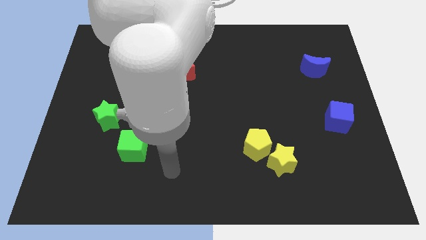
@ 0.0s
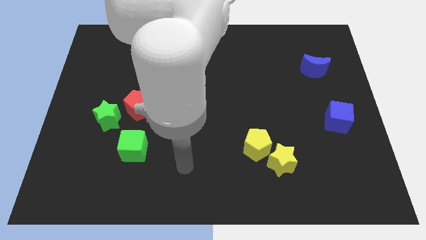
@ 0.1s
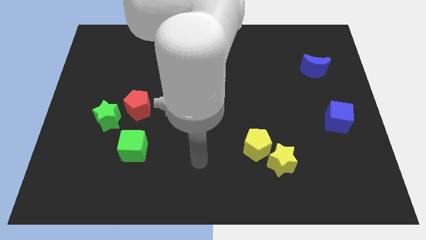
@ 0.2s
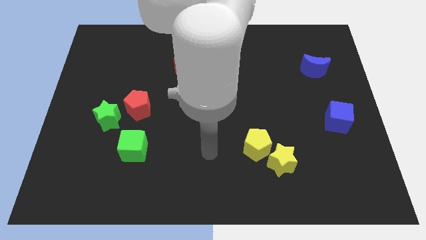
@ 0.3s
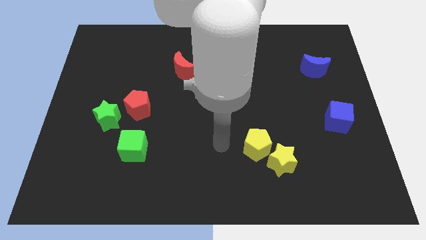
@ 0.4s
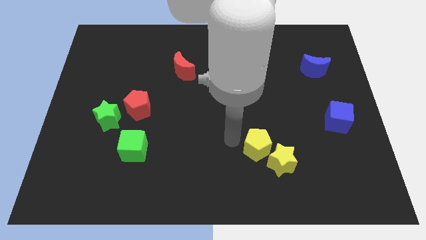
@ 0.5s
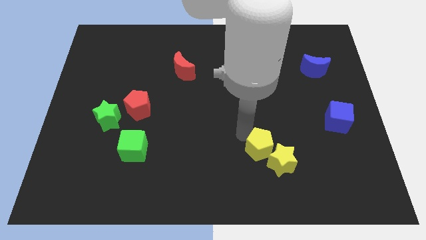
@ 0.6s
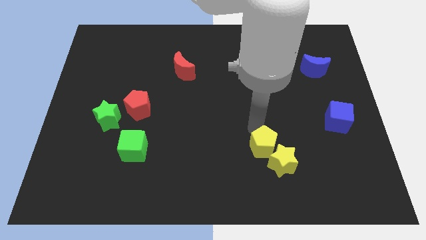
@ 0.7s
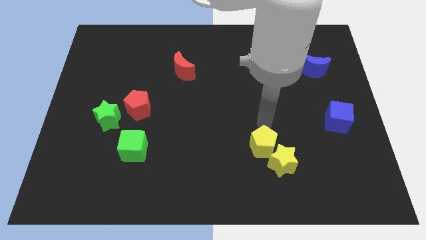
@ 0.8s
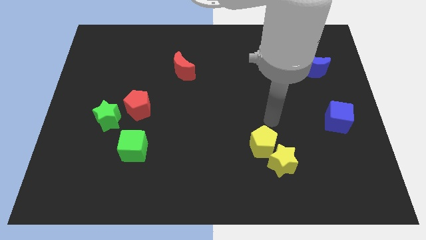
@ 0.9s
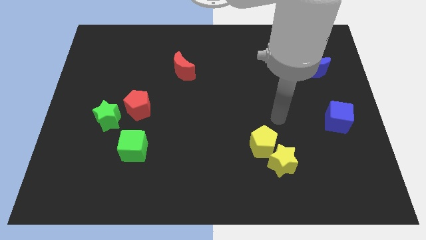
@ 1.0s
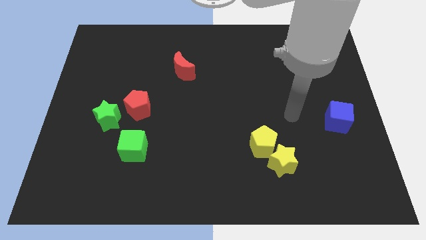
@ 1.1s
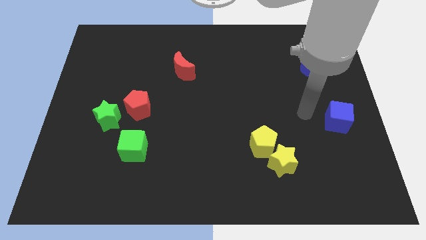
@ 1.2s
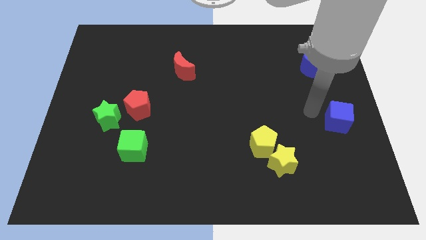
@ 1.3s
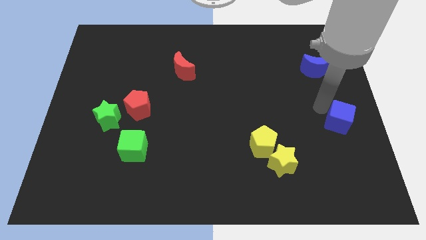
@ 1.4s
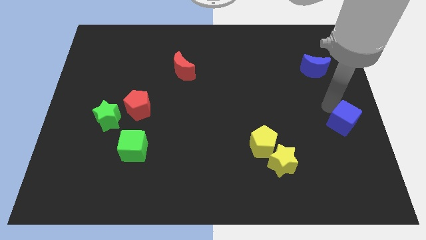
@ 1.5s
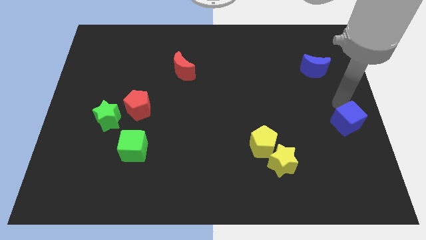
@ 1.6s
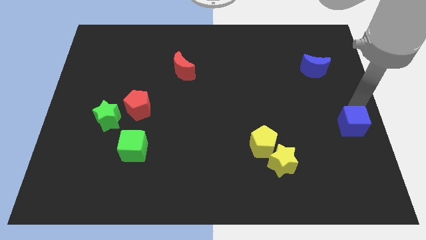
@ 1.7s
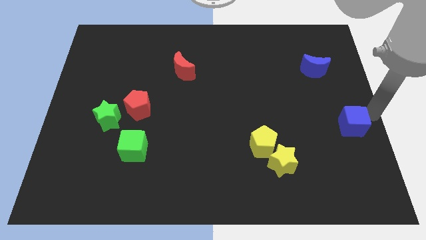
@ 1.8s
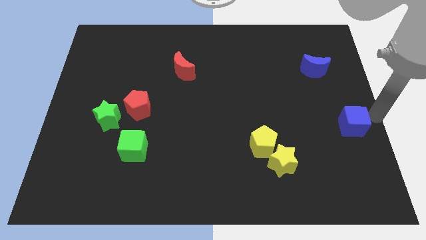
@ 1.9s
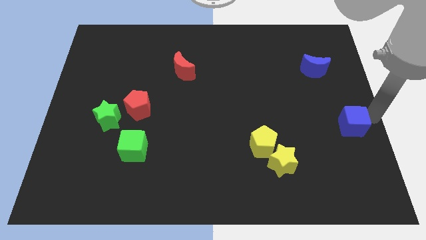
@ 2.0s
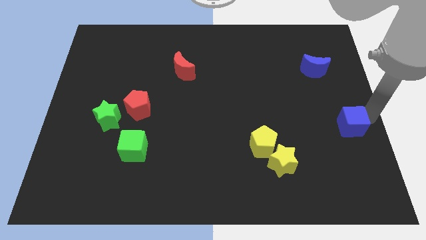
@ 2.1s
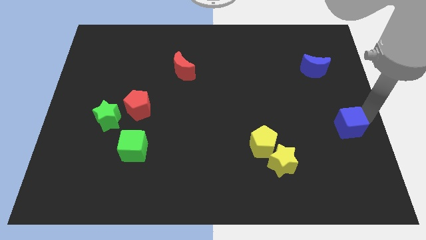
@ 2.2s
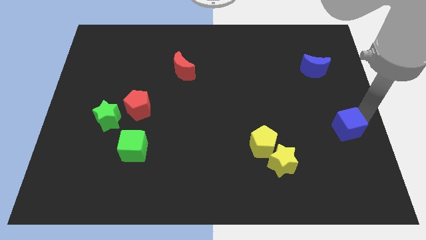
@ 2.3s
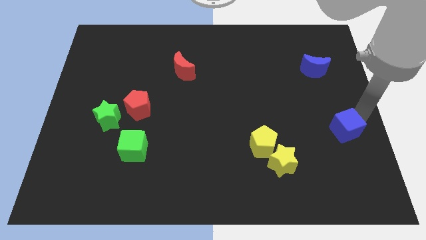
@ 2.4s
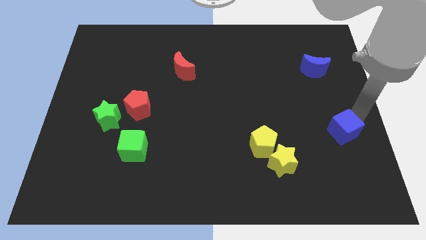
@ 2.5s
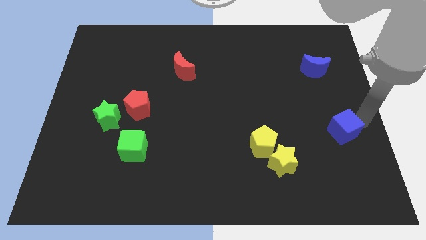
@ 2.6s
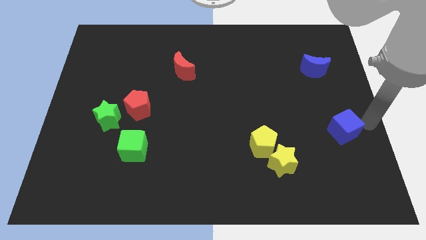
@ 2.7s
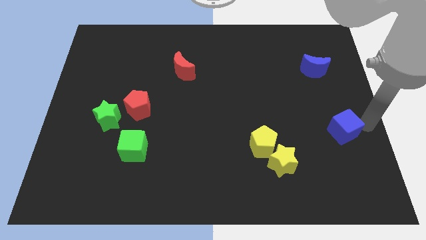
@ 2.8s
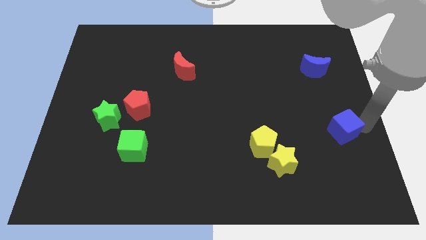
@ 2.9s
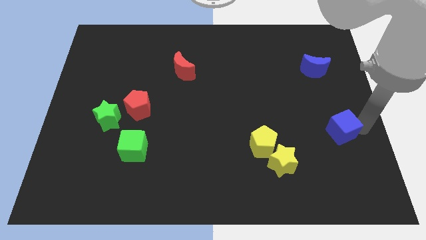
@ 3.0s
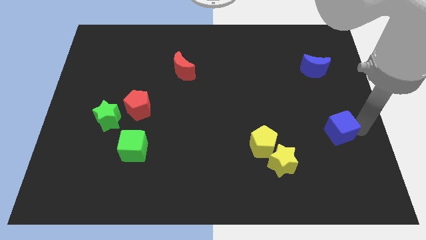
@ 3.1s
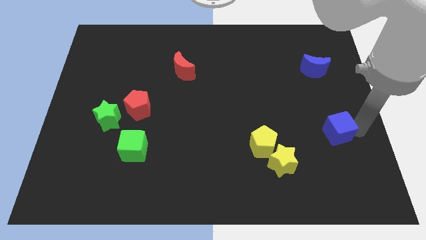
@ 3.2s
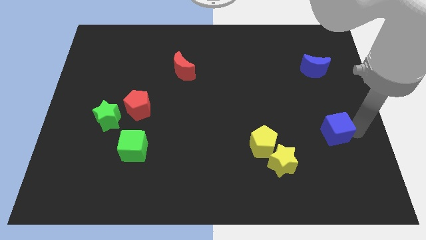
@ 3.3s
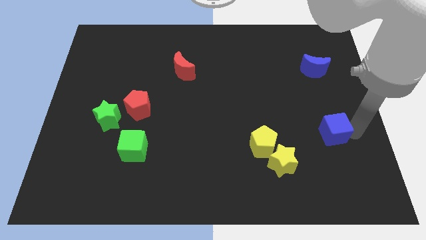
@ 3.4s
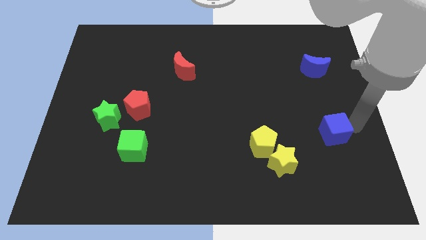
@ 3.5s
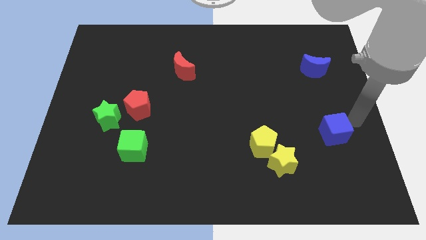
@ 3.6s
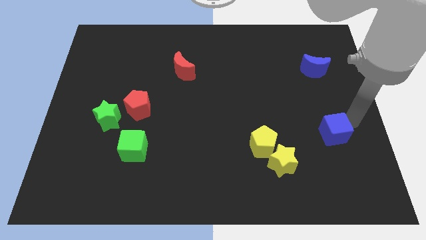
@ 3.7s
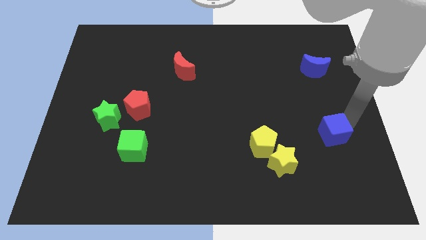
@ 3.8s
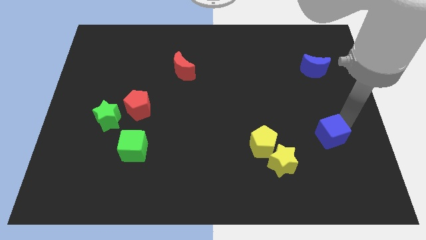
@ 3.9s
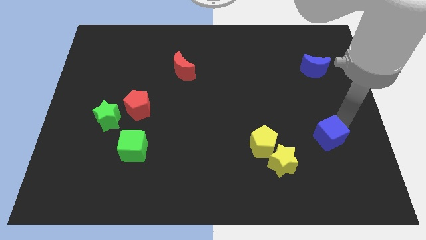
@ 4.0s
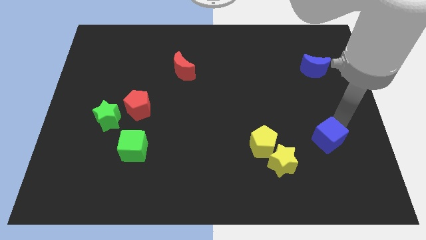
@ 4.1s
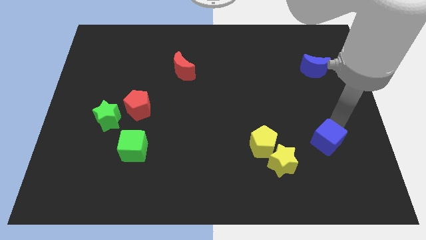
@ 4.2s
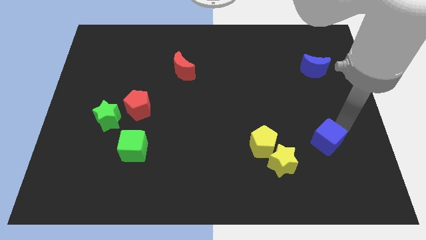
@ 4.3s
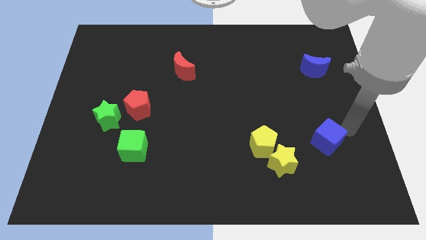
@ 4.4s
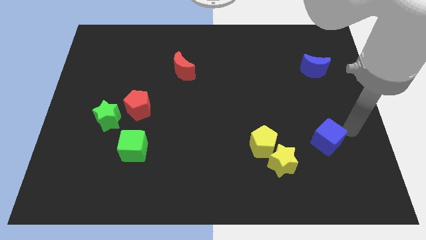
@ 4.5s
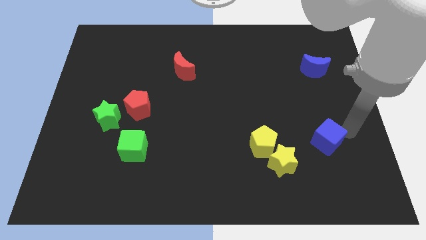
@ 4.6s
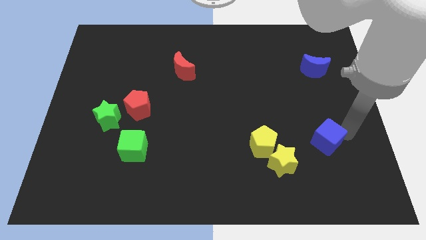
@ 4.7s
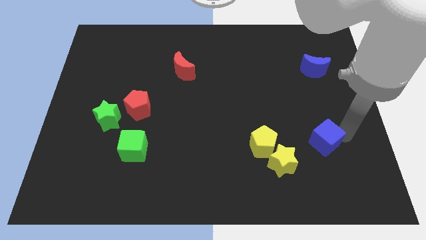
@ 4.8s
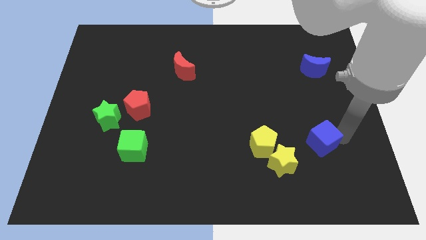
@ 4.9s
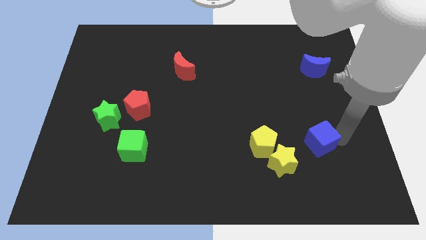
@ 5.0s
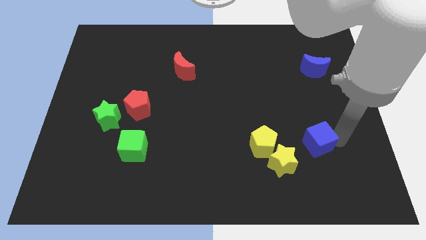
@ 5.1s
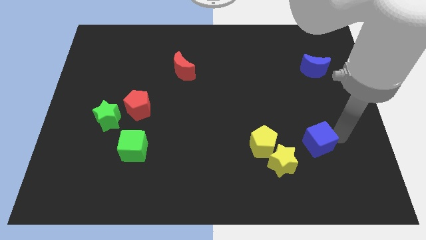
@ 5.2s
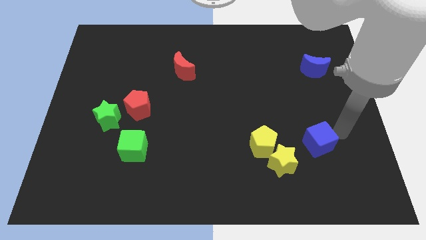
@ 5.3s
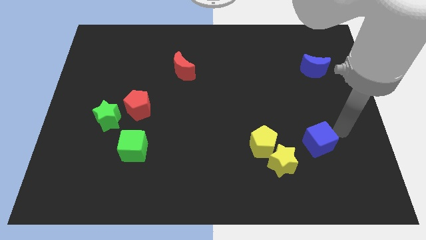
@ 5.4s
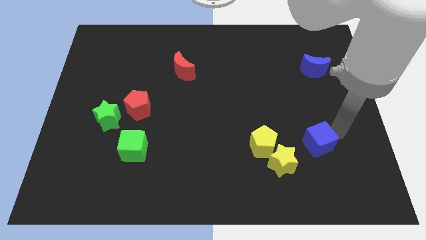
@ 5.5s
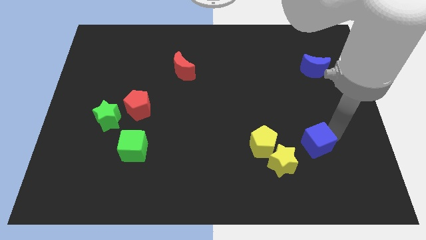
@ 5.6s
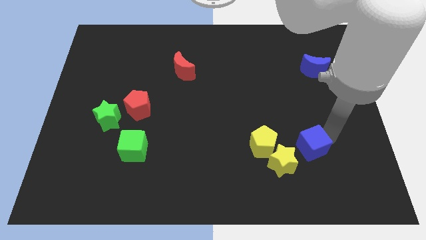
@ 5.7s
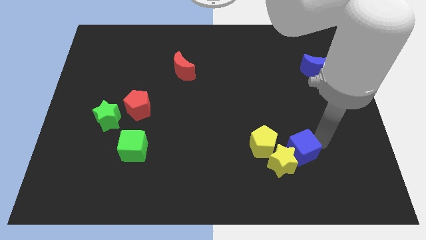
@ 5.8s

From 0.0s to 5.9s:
put the blue cube towards the yellow star

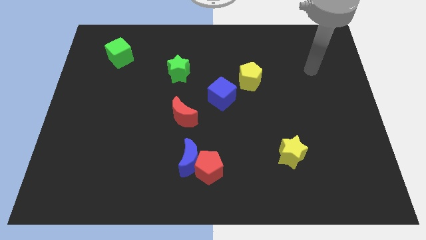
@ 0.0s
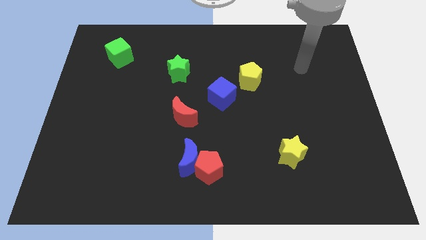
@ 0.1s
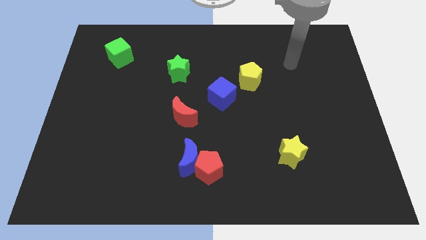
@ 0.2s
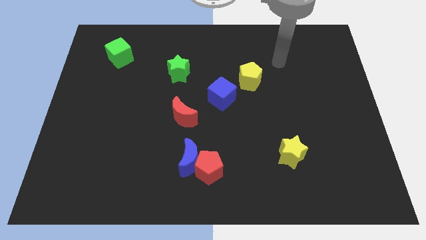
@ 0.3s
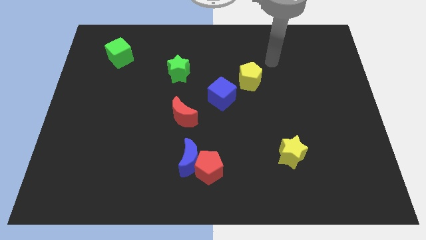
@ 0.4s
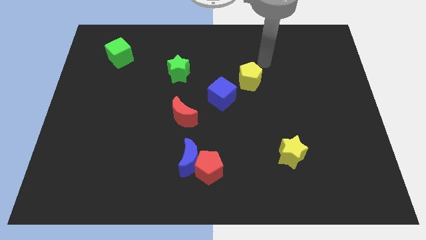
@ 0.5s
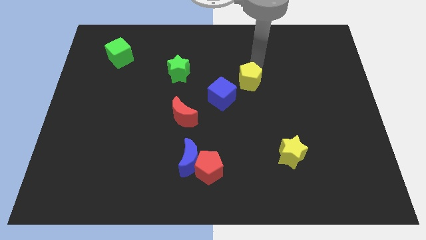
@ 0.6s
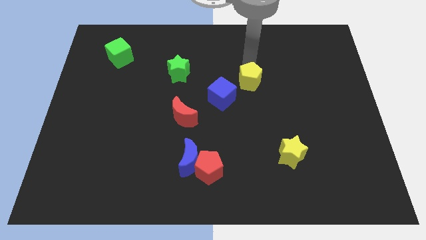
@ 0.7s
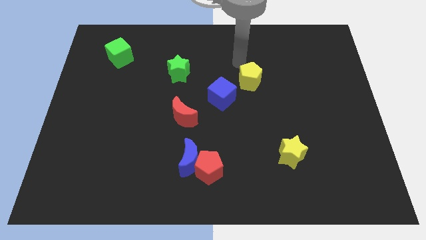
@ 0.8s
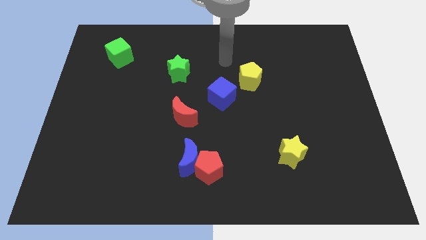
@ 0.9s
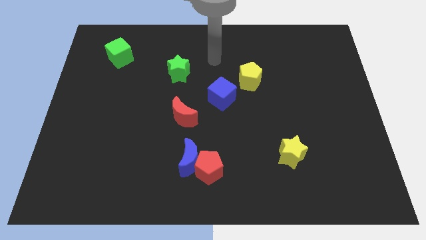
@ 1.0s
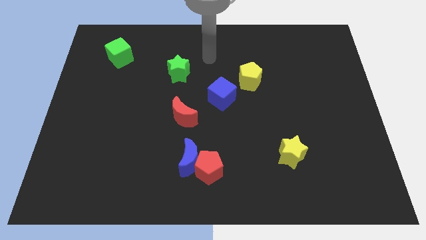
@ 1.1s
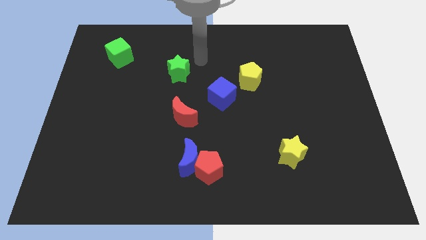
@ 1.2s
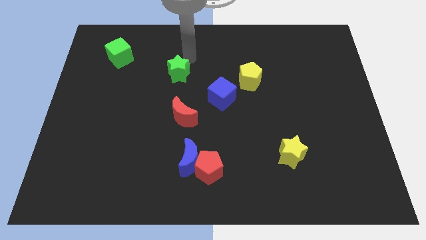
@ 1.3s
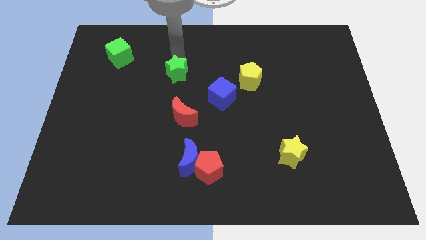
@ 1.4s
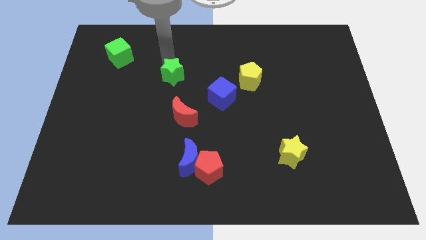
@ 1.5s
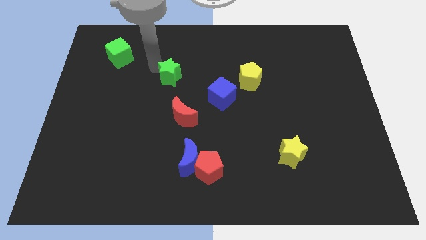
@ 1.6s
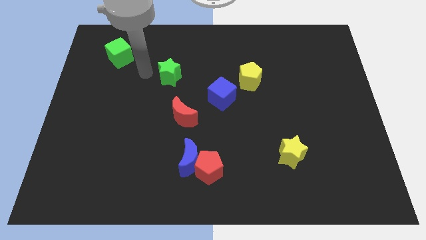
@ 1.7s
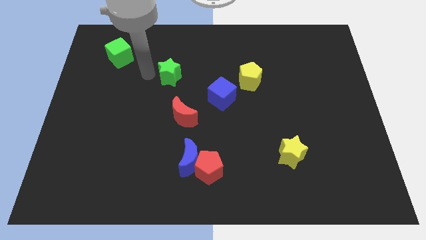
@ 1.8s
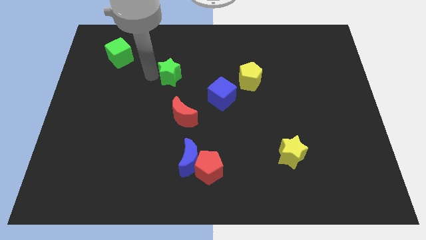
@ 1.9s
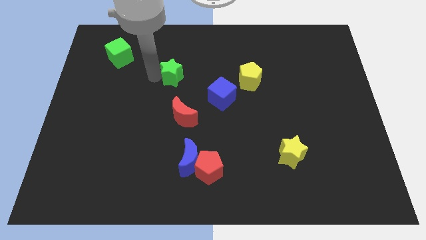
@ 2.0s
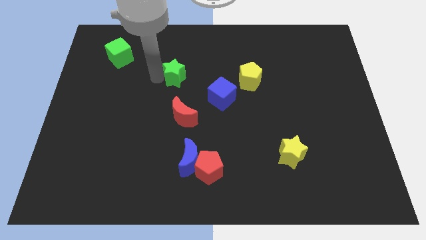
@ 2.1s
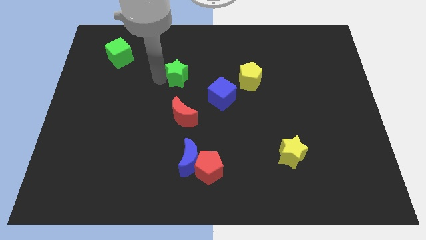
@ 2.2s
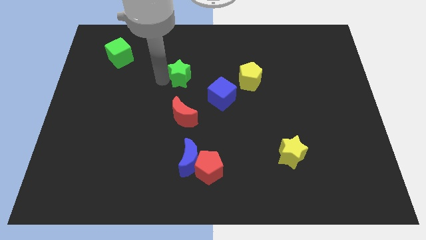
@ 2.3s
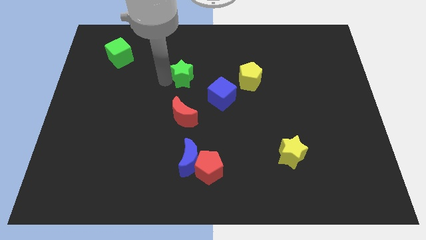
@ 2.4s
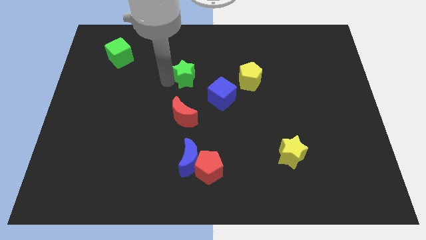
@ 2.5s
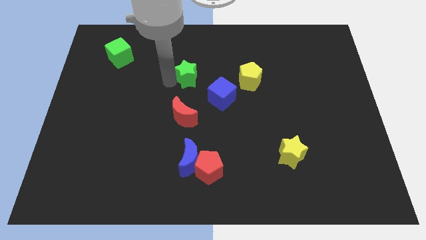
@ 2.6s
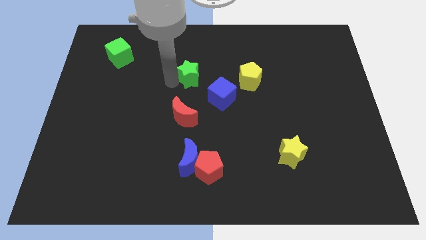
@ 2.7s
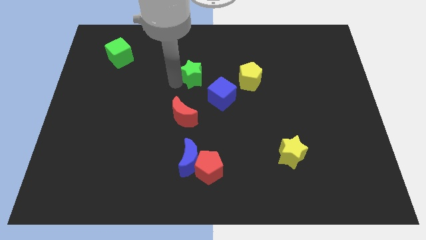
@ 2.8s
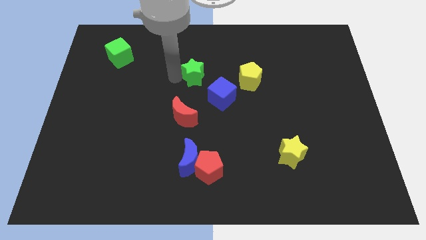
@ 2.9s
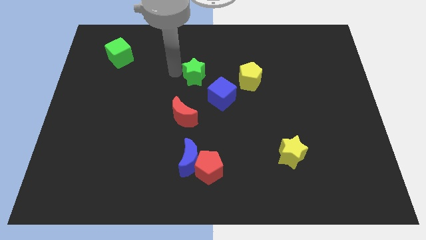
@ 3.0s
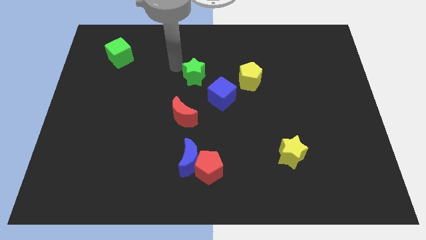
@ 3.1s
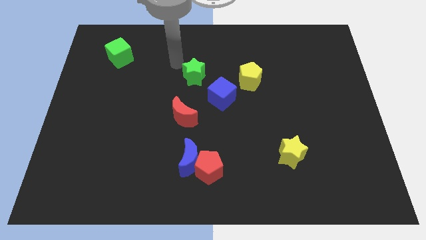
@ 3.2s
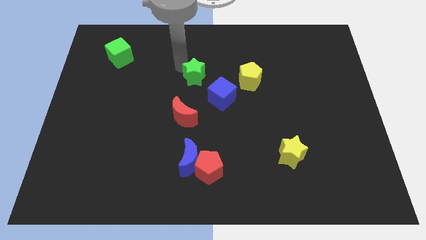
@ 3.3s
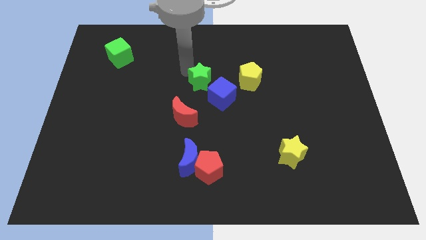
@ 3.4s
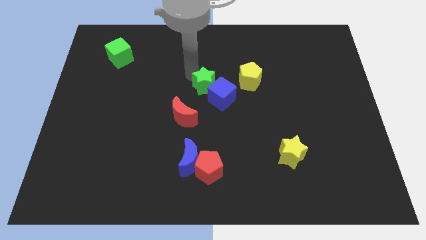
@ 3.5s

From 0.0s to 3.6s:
slide the green star towards the blue cube
